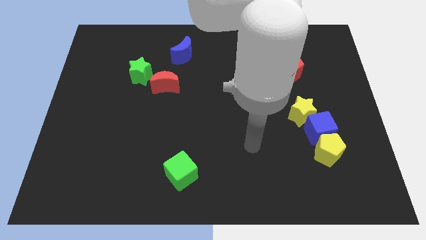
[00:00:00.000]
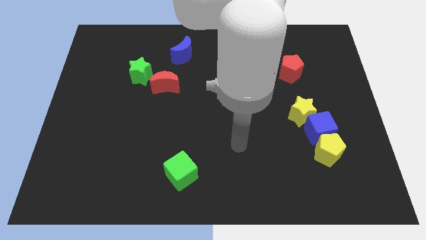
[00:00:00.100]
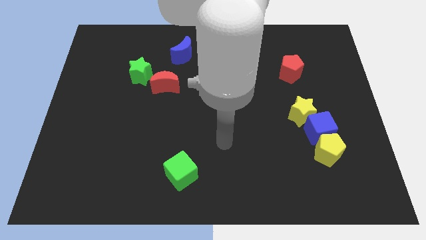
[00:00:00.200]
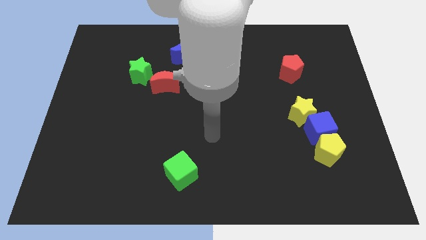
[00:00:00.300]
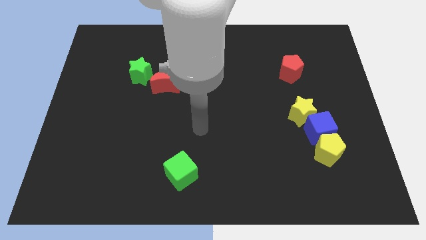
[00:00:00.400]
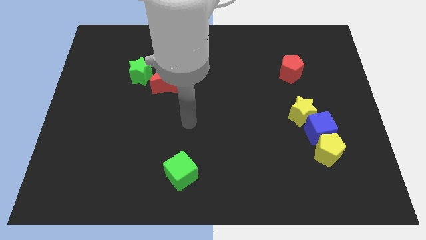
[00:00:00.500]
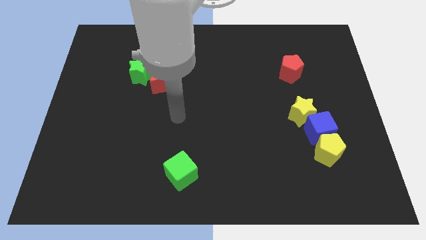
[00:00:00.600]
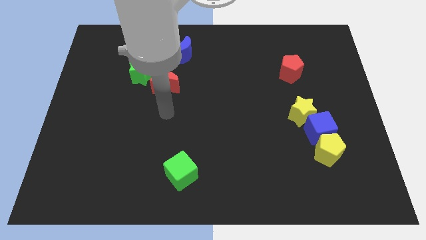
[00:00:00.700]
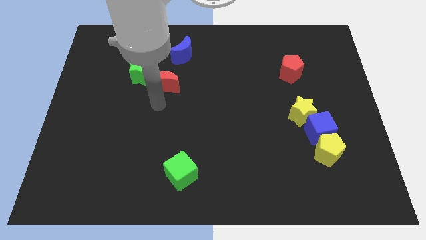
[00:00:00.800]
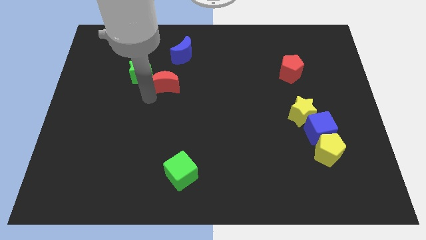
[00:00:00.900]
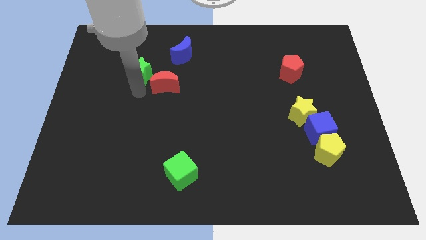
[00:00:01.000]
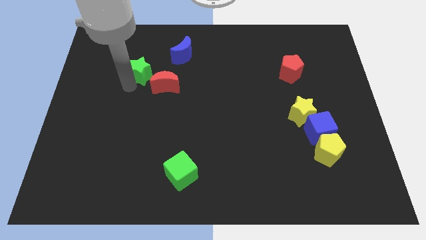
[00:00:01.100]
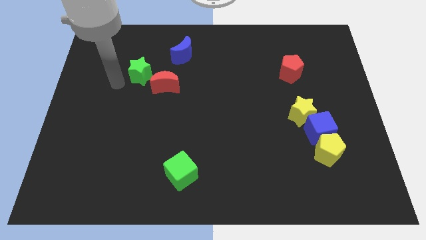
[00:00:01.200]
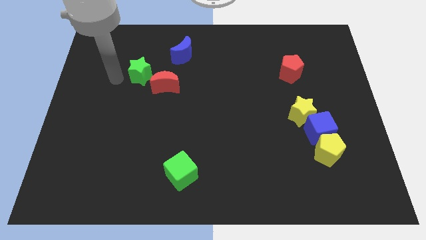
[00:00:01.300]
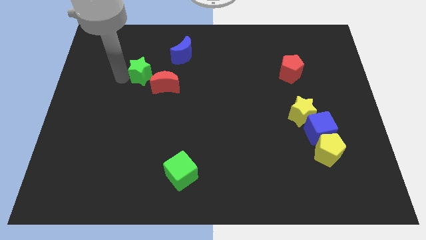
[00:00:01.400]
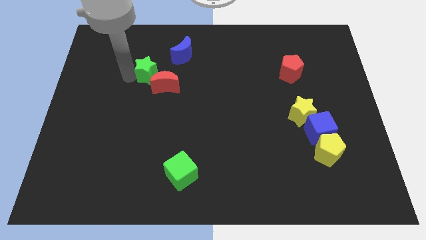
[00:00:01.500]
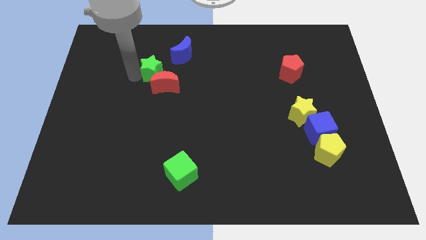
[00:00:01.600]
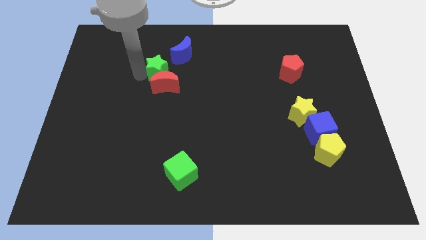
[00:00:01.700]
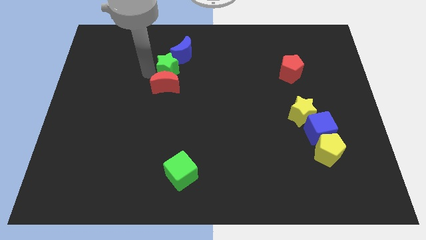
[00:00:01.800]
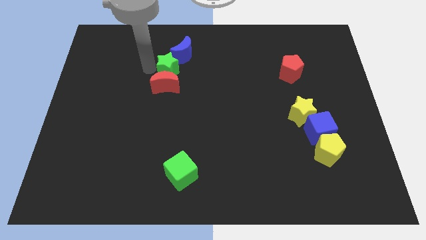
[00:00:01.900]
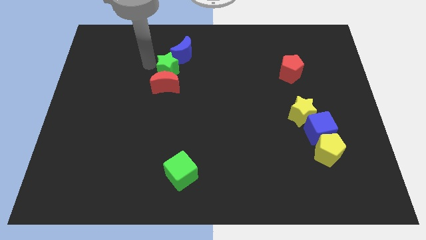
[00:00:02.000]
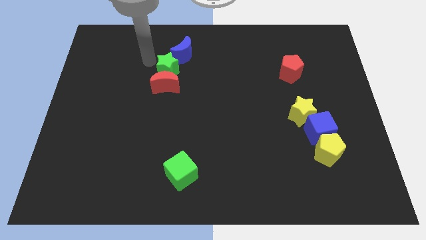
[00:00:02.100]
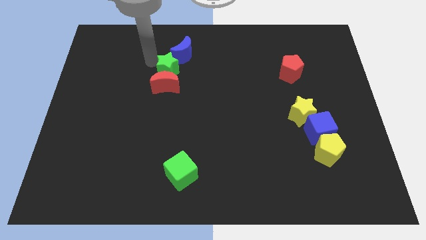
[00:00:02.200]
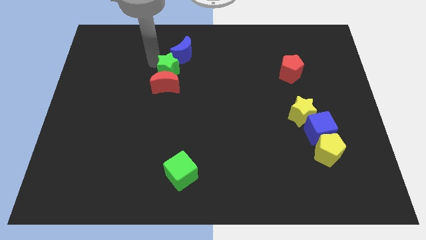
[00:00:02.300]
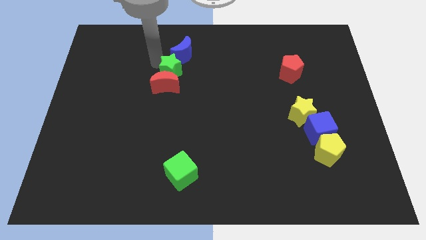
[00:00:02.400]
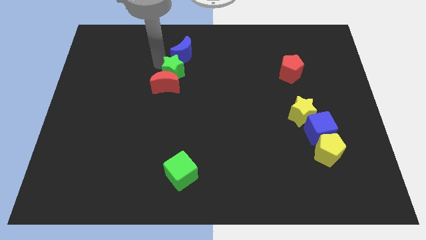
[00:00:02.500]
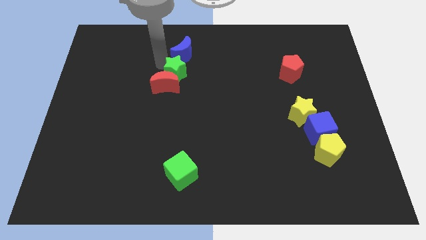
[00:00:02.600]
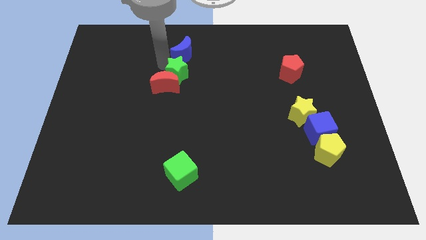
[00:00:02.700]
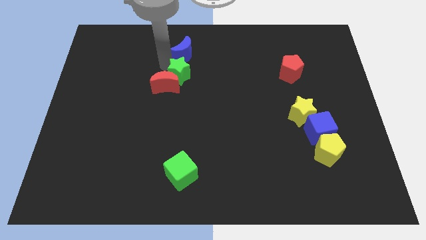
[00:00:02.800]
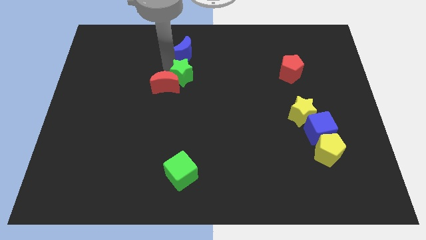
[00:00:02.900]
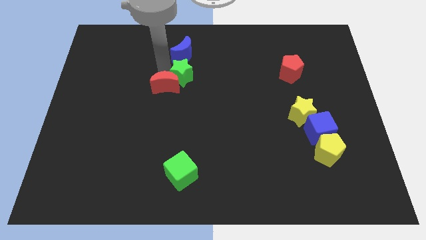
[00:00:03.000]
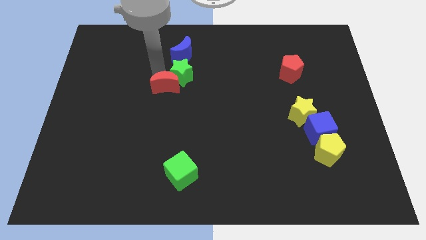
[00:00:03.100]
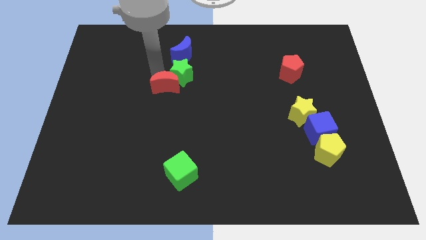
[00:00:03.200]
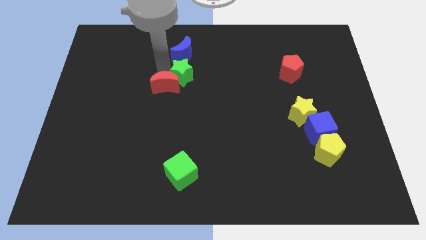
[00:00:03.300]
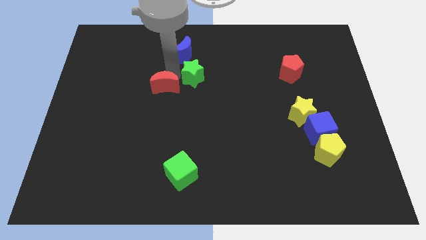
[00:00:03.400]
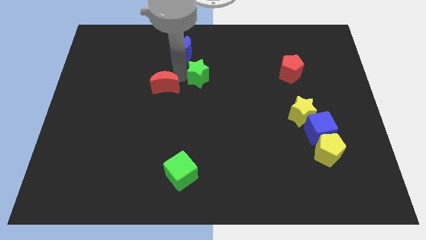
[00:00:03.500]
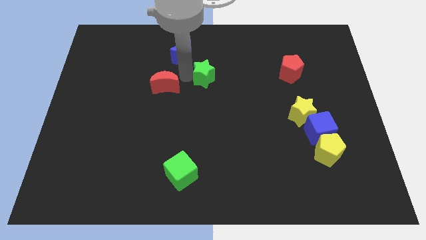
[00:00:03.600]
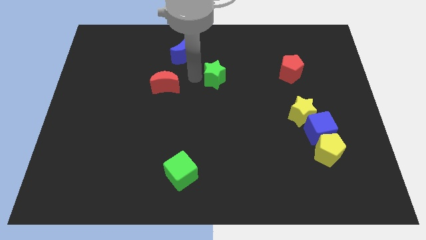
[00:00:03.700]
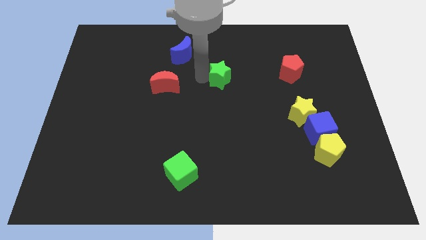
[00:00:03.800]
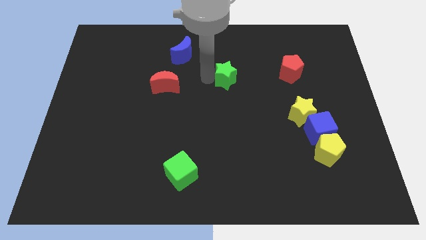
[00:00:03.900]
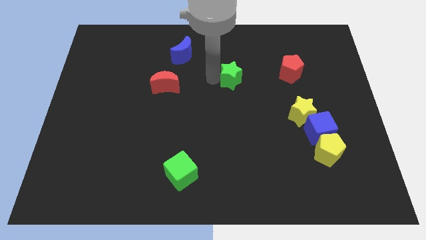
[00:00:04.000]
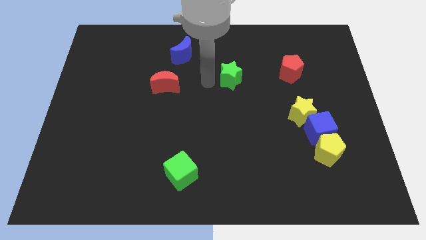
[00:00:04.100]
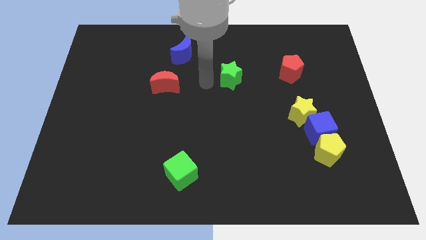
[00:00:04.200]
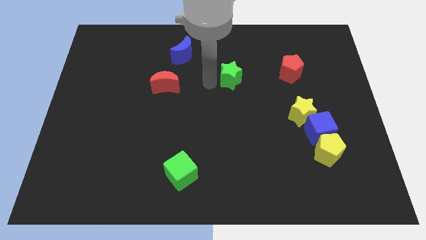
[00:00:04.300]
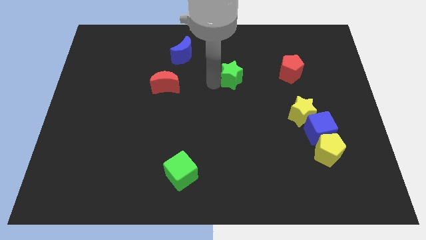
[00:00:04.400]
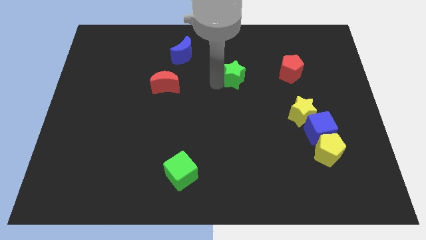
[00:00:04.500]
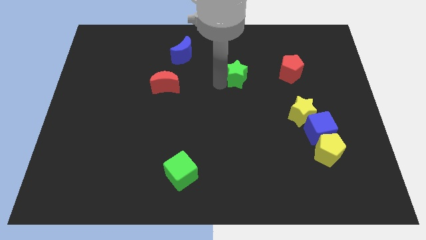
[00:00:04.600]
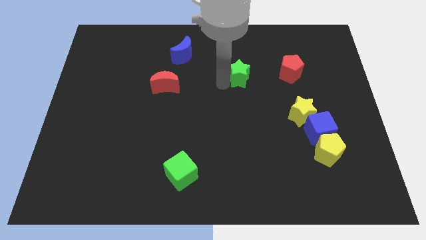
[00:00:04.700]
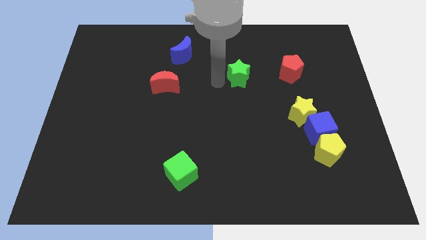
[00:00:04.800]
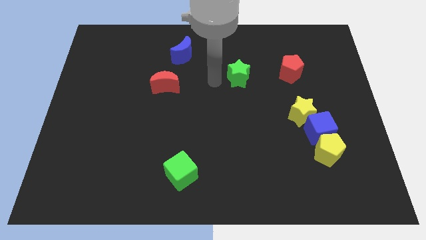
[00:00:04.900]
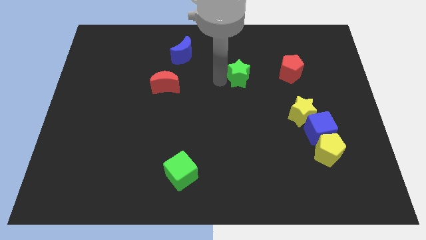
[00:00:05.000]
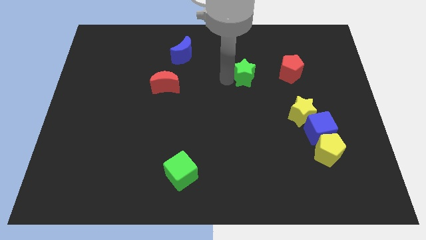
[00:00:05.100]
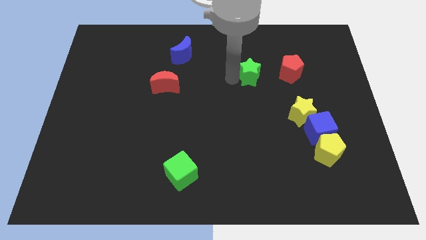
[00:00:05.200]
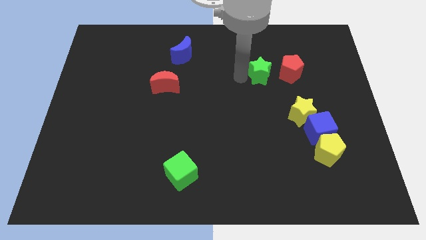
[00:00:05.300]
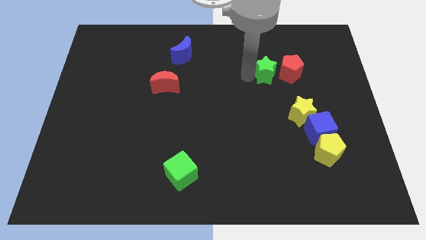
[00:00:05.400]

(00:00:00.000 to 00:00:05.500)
move the green star to the red pentagon

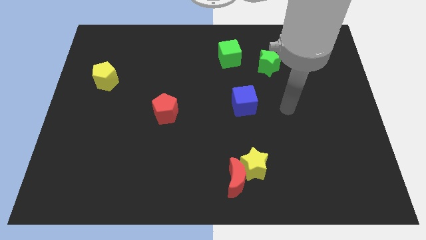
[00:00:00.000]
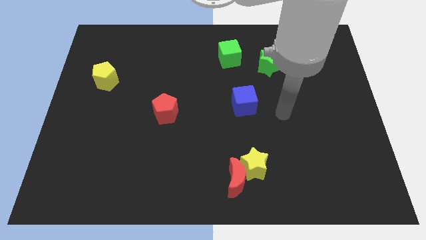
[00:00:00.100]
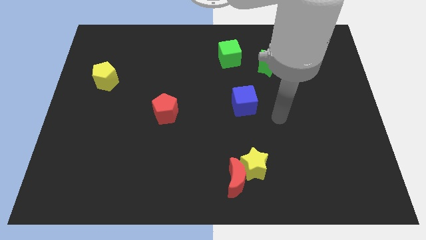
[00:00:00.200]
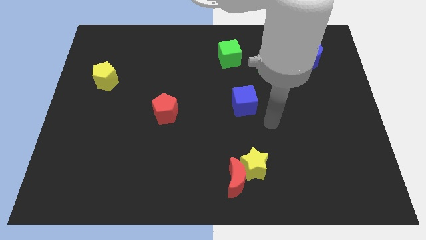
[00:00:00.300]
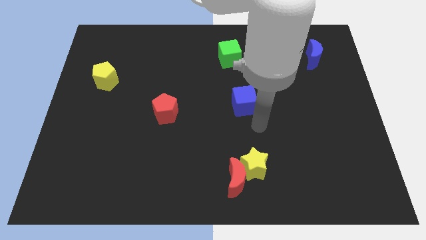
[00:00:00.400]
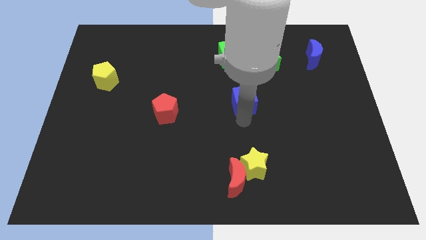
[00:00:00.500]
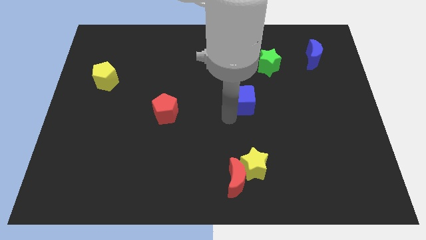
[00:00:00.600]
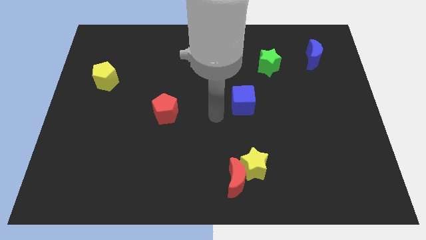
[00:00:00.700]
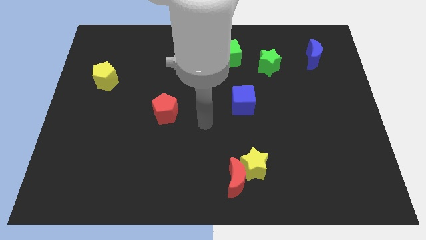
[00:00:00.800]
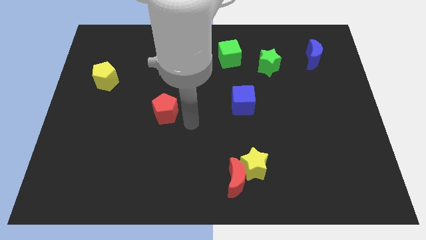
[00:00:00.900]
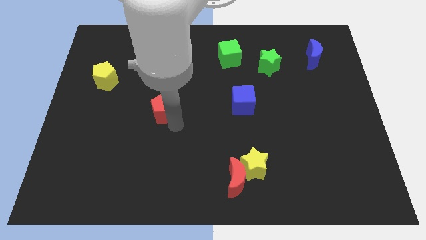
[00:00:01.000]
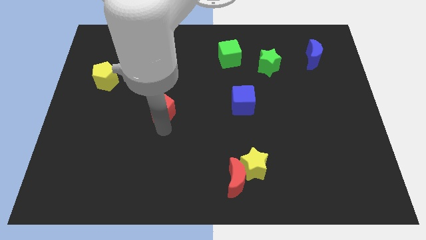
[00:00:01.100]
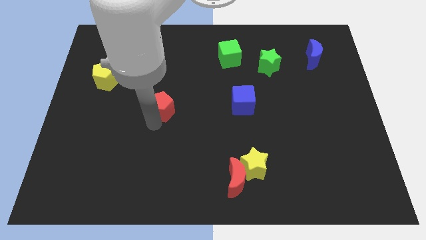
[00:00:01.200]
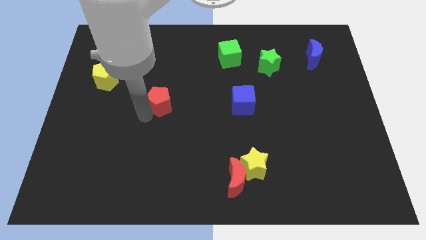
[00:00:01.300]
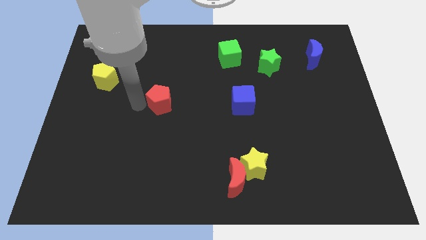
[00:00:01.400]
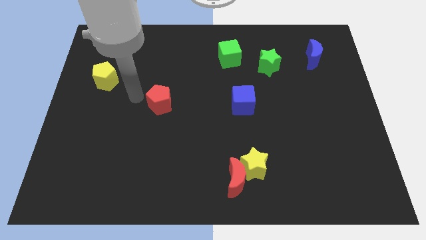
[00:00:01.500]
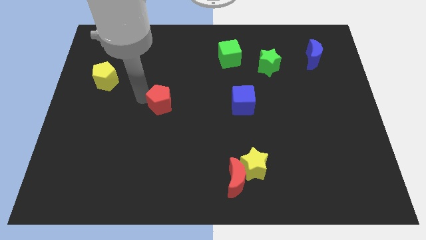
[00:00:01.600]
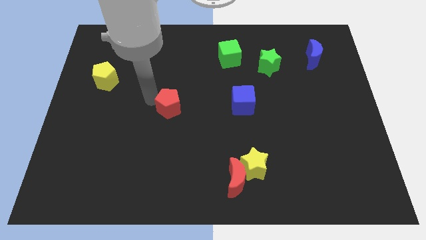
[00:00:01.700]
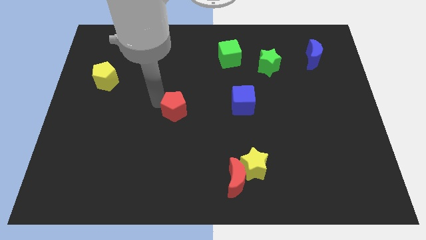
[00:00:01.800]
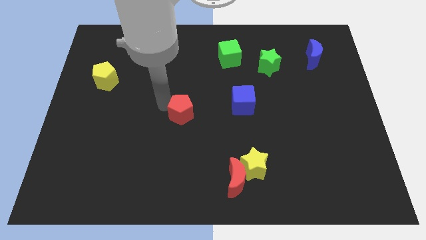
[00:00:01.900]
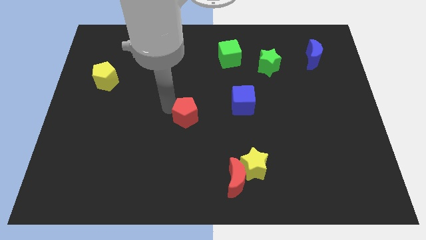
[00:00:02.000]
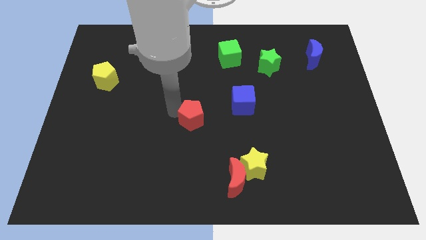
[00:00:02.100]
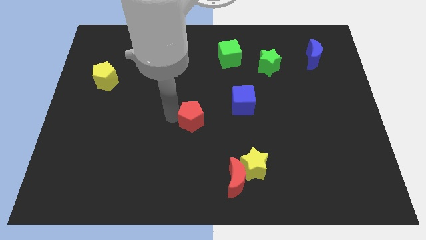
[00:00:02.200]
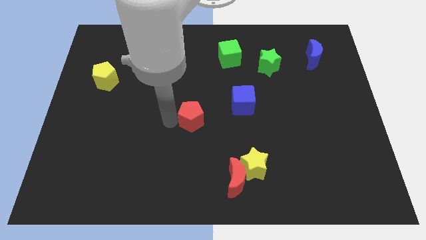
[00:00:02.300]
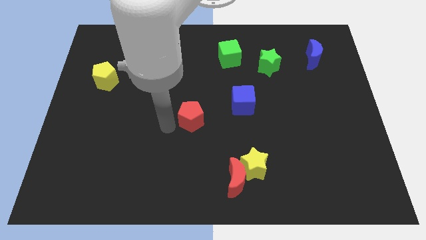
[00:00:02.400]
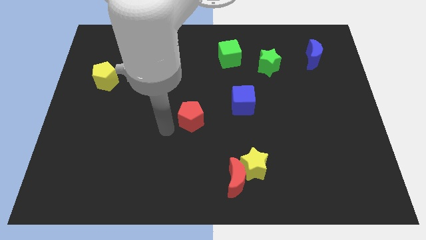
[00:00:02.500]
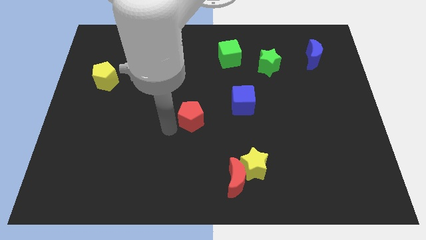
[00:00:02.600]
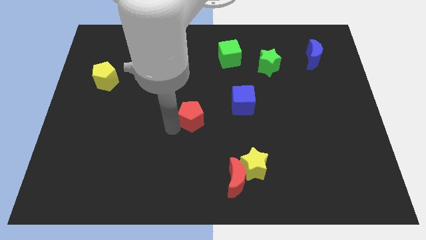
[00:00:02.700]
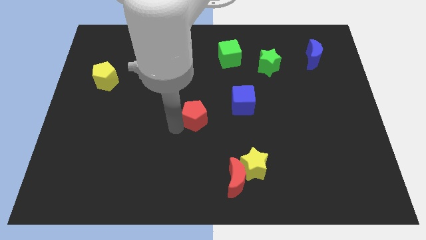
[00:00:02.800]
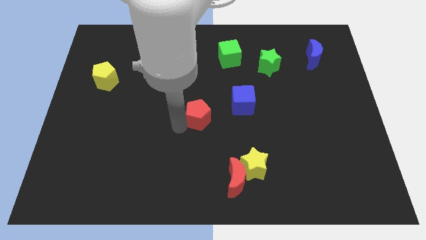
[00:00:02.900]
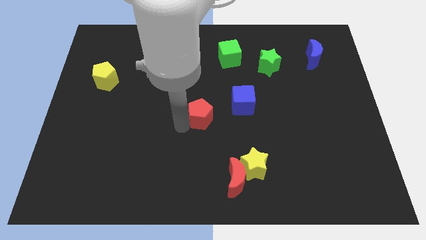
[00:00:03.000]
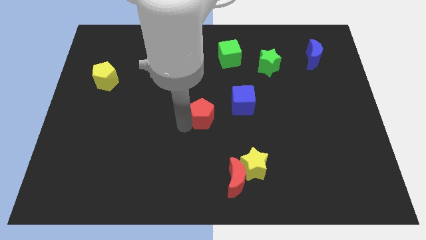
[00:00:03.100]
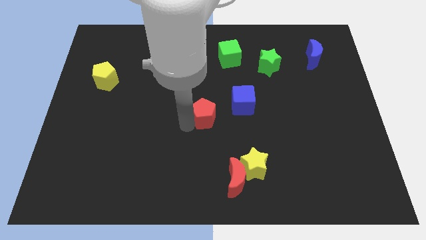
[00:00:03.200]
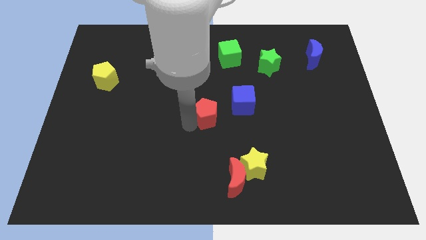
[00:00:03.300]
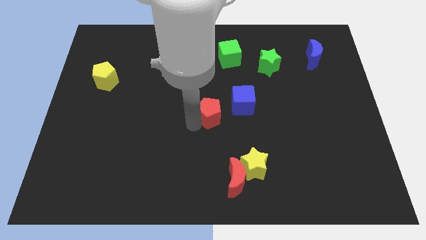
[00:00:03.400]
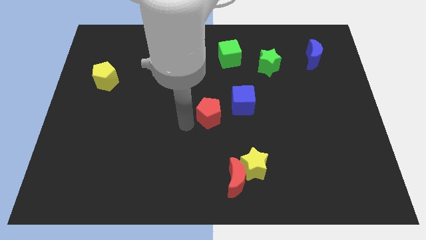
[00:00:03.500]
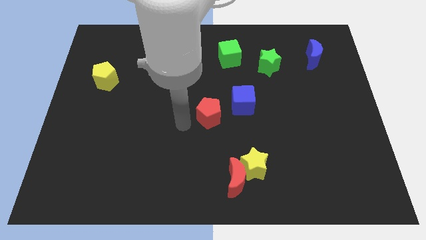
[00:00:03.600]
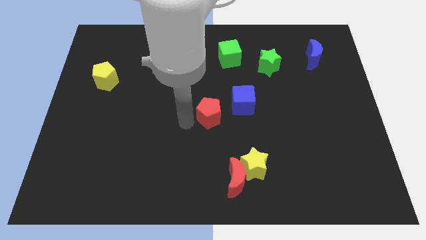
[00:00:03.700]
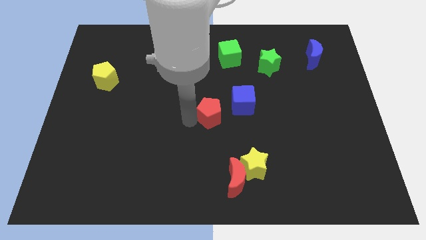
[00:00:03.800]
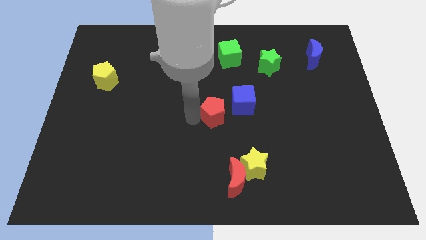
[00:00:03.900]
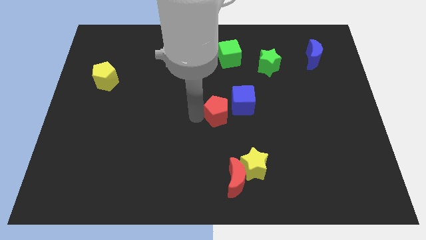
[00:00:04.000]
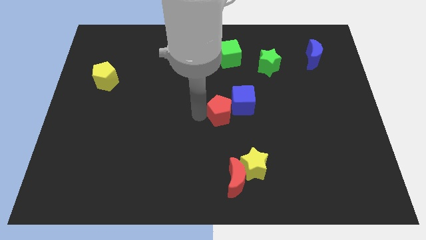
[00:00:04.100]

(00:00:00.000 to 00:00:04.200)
slide the red pentagon towards the blue cube
